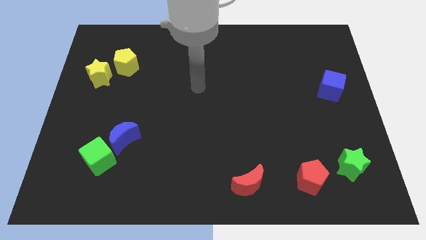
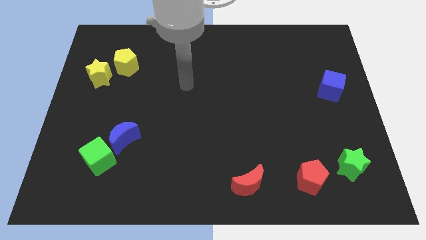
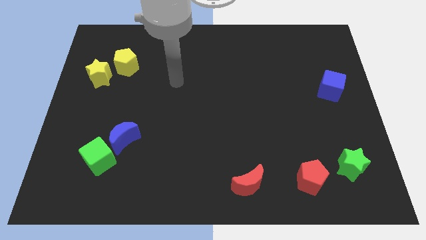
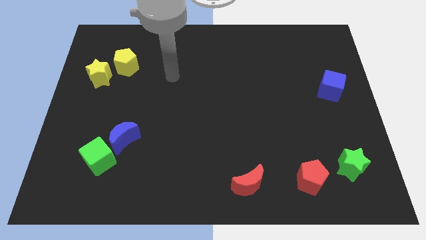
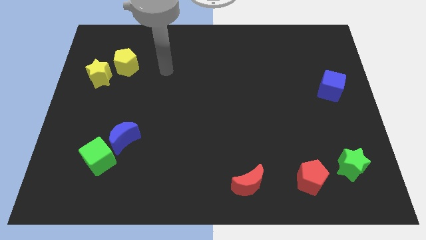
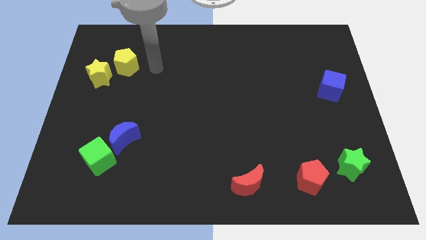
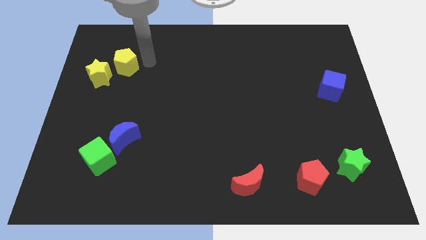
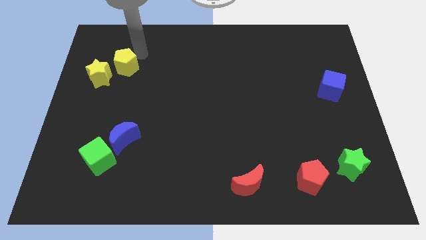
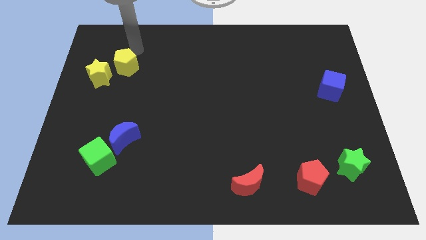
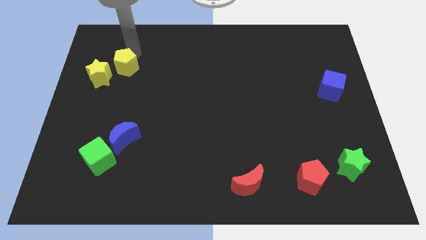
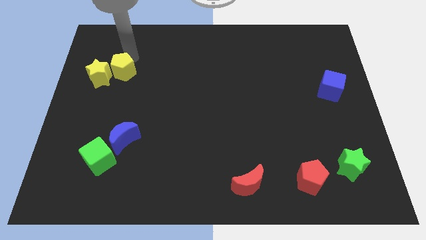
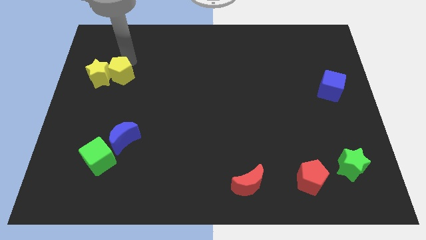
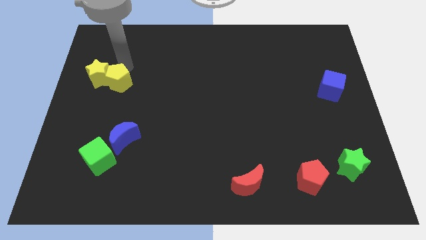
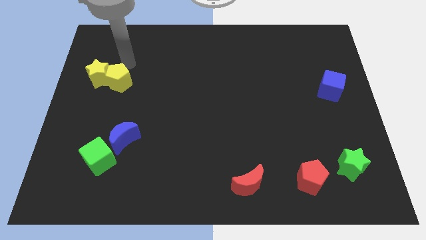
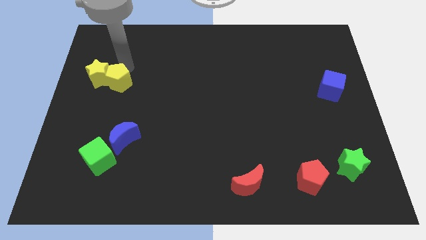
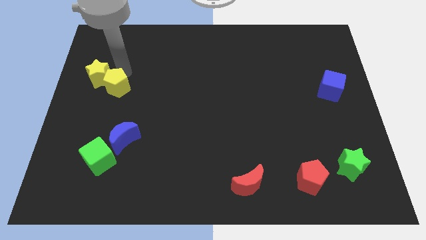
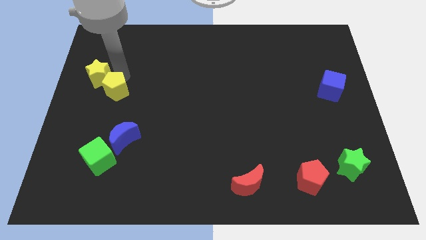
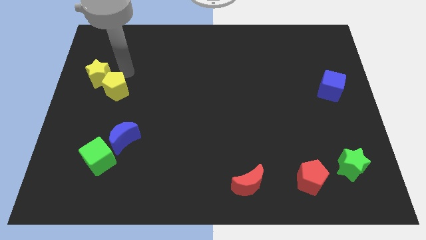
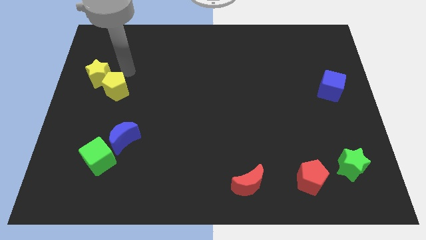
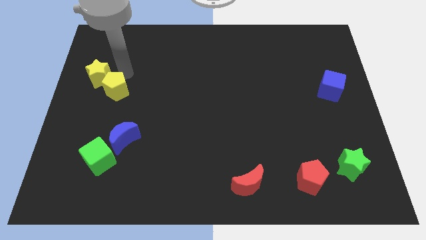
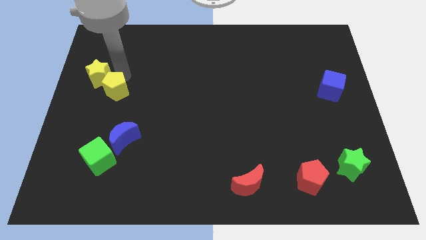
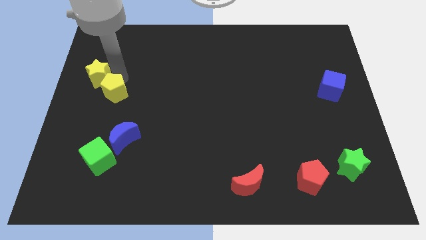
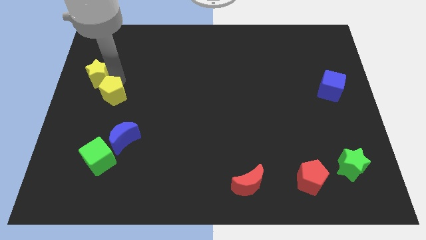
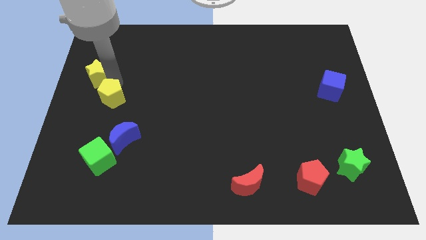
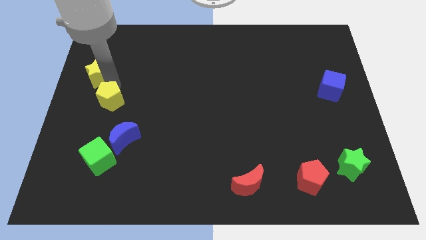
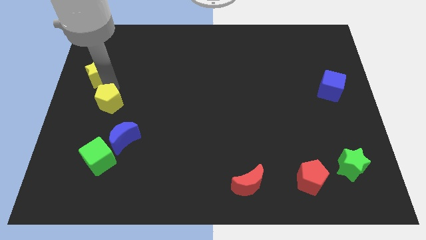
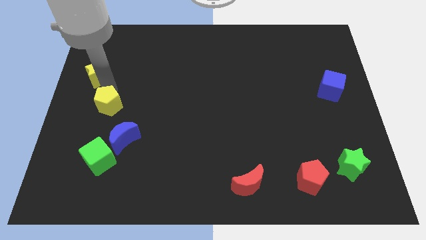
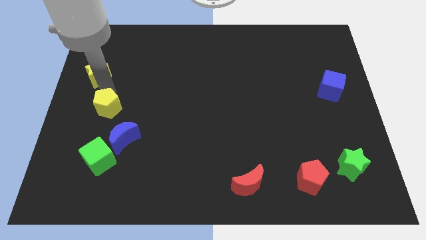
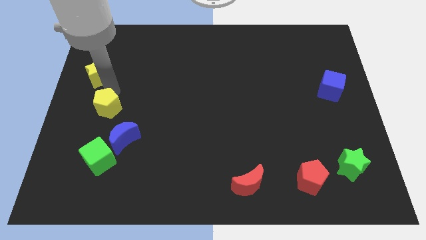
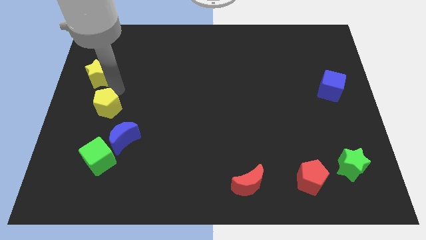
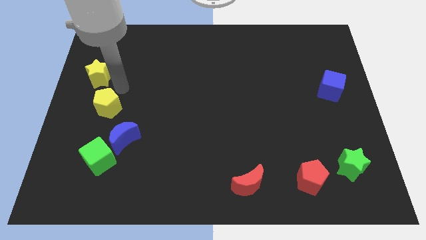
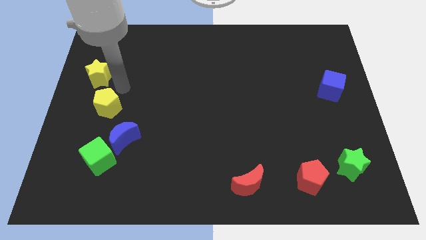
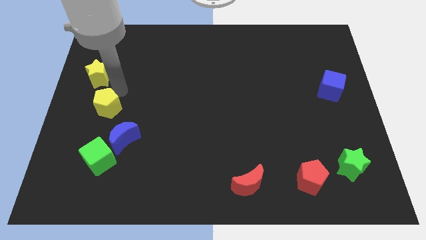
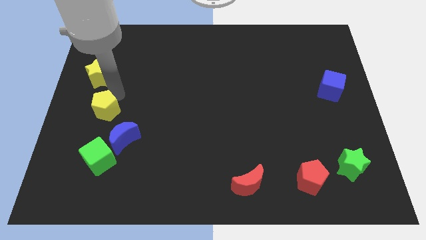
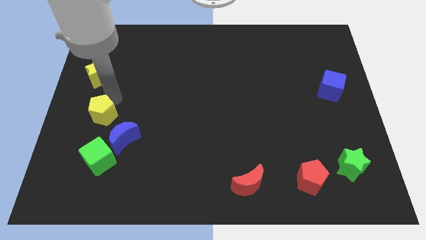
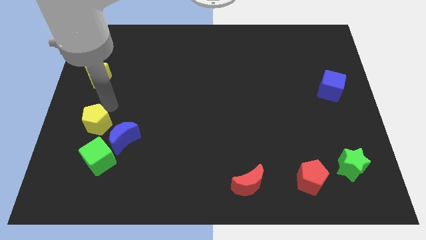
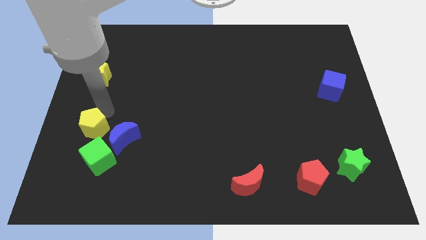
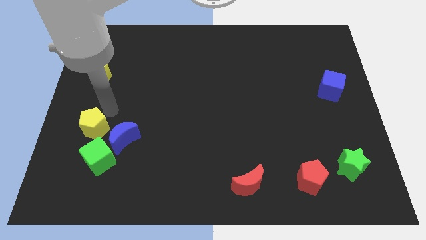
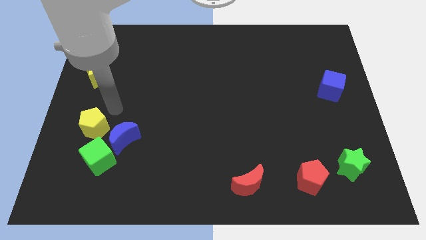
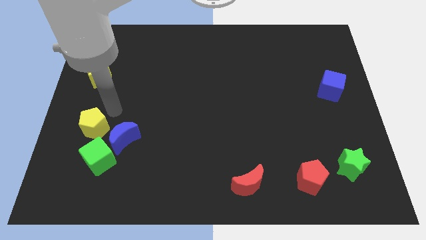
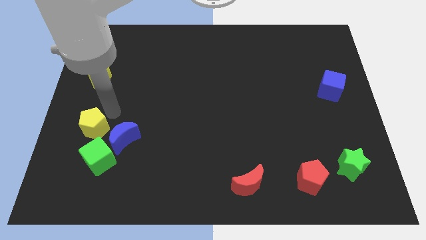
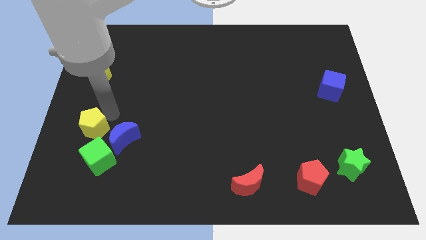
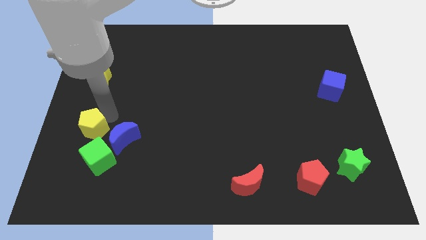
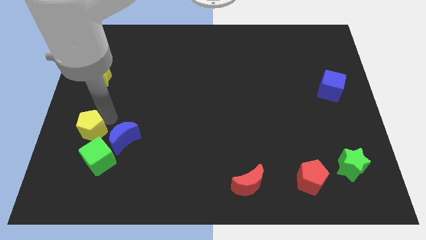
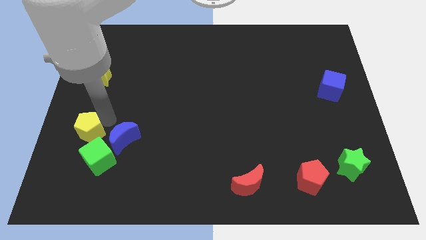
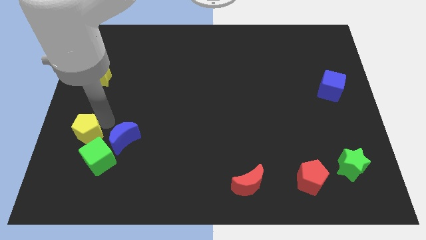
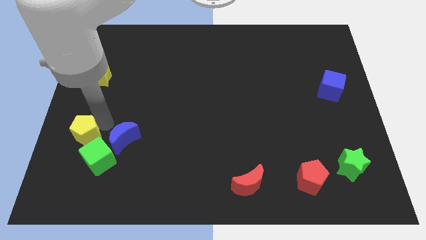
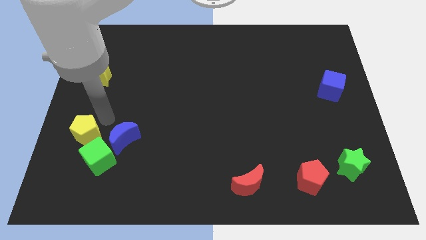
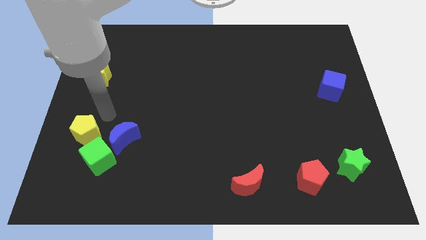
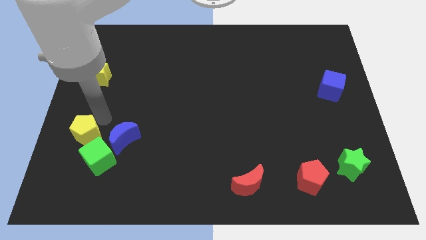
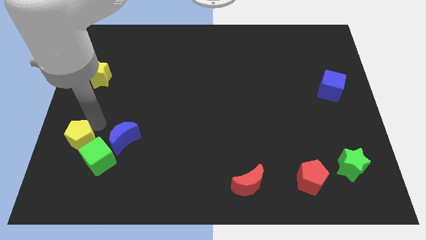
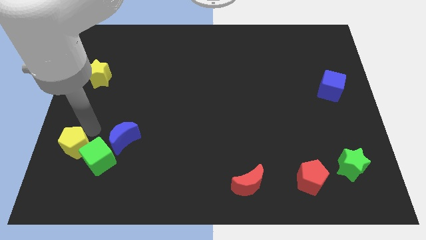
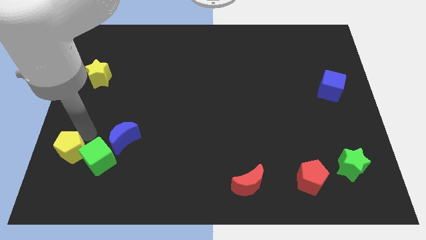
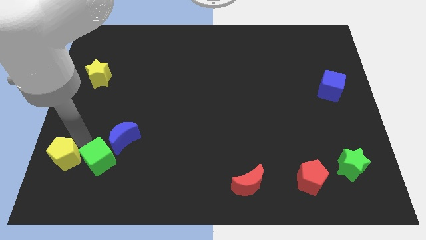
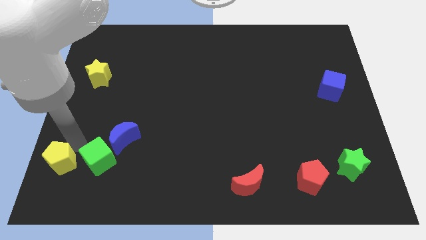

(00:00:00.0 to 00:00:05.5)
slide the yellow pentagon to the bottom left corner
